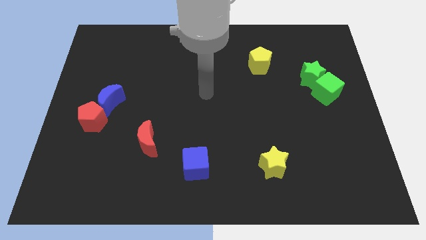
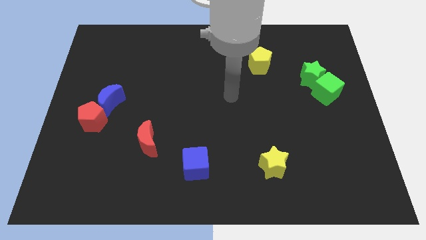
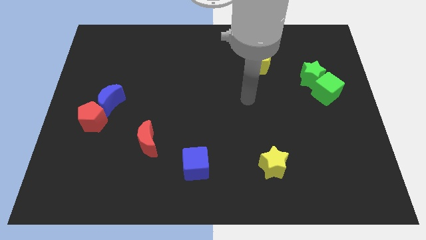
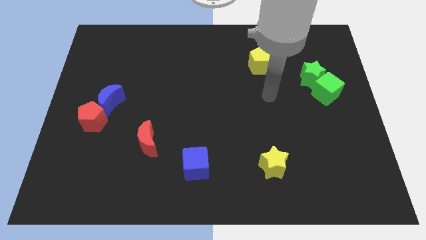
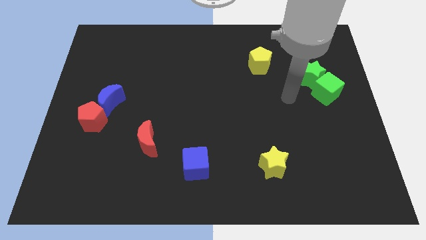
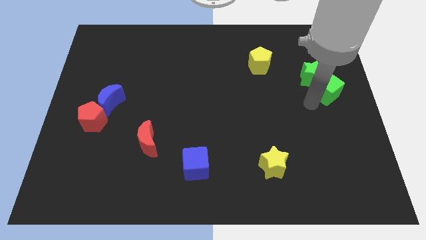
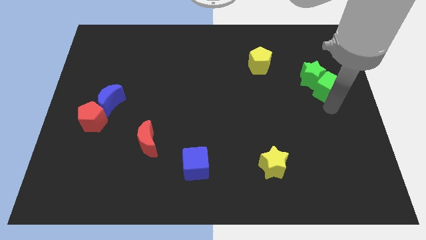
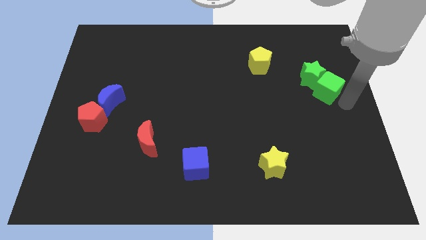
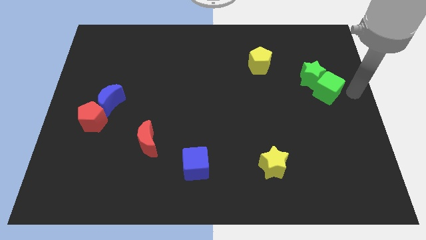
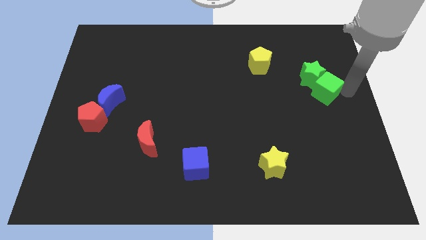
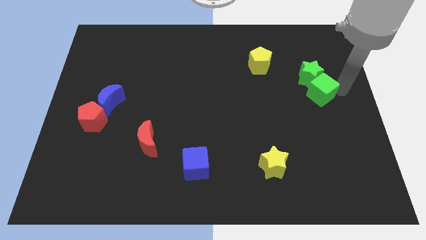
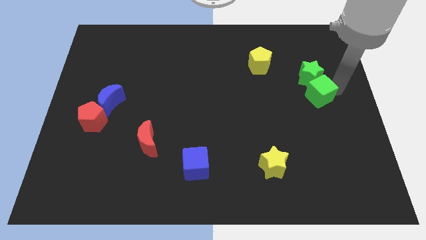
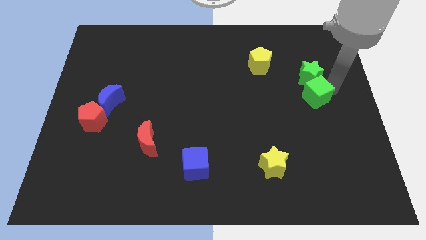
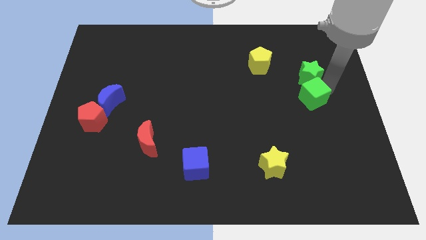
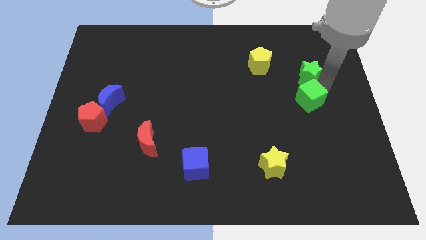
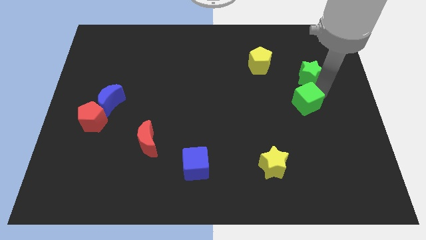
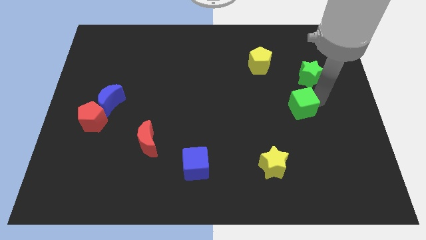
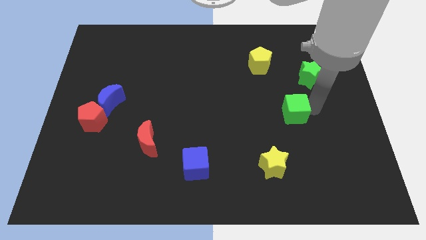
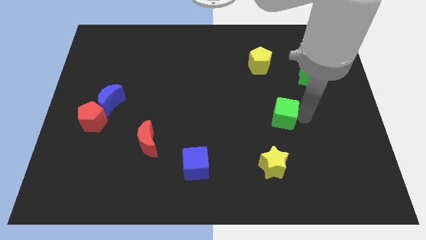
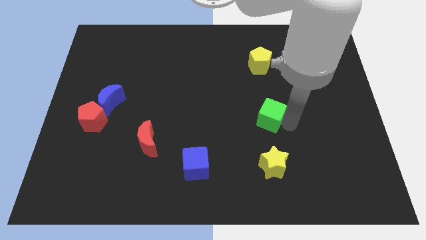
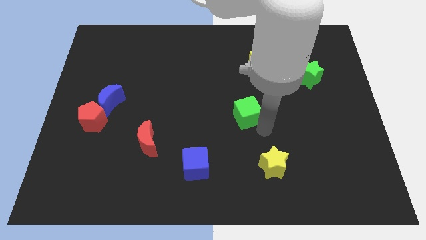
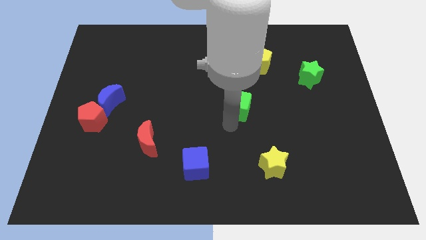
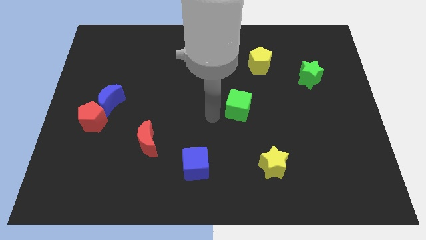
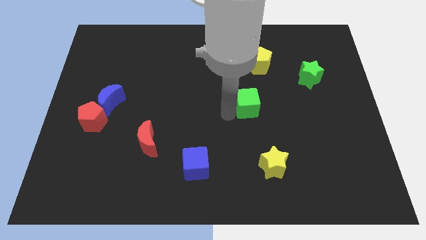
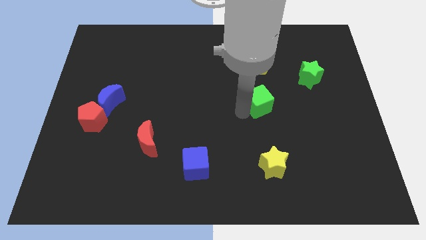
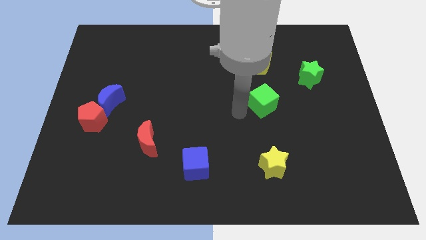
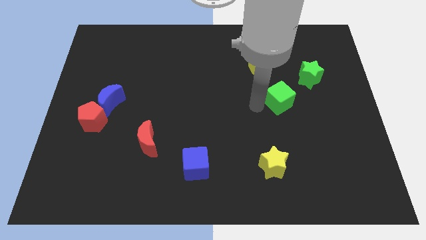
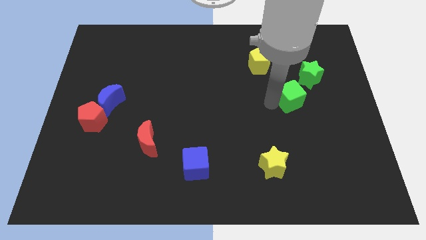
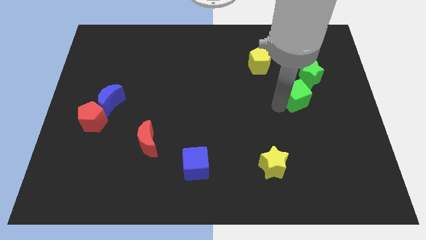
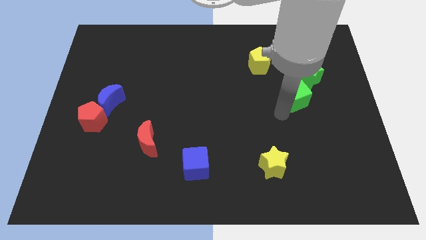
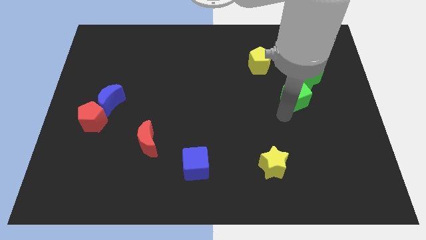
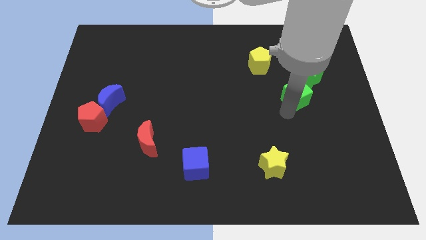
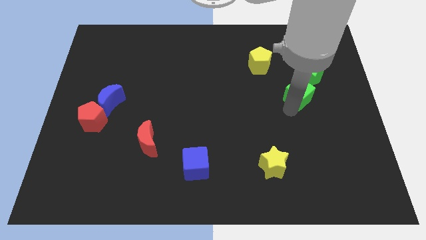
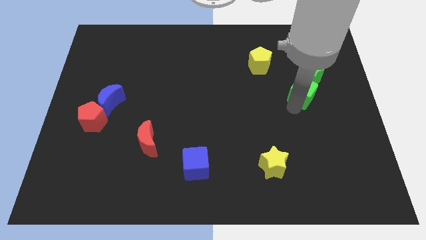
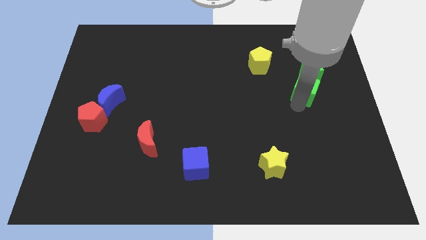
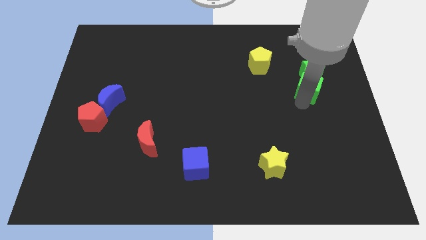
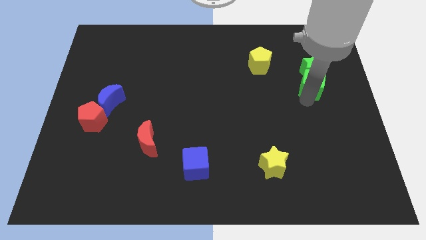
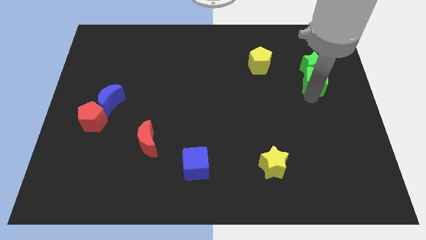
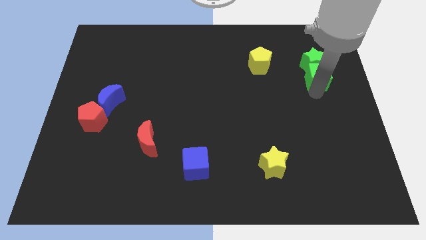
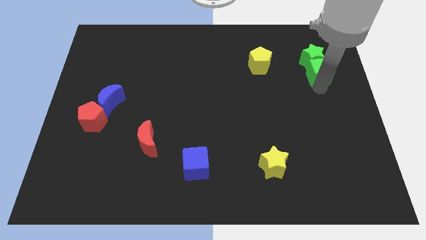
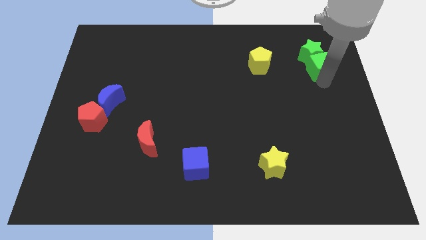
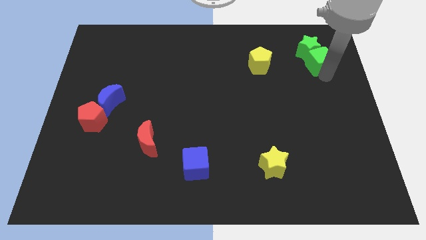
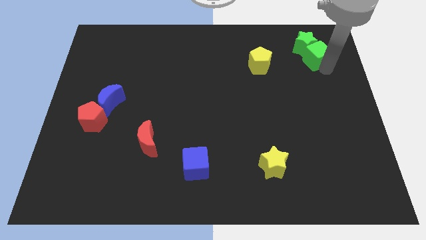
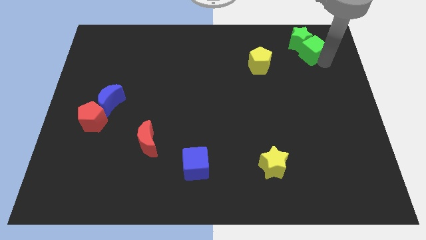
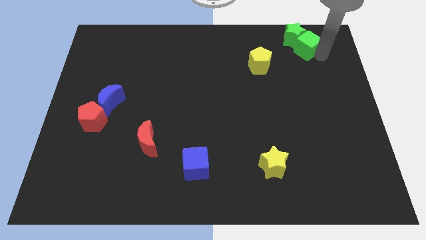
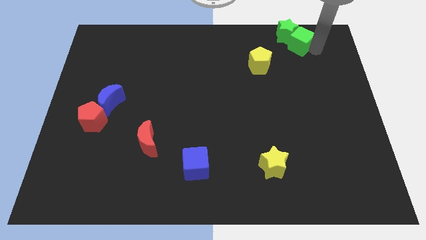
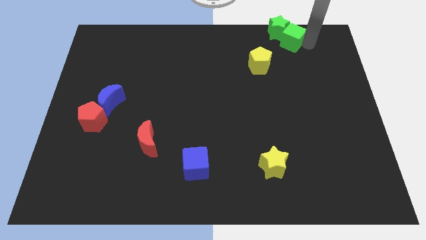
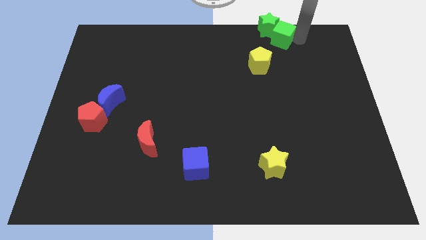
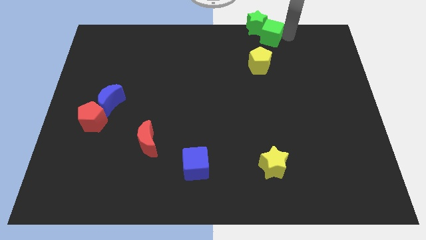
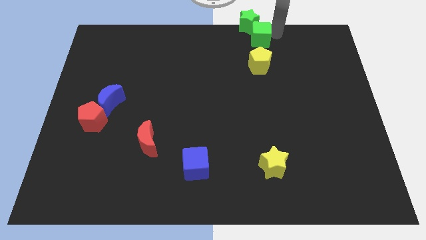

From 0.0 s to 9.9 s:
put the green cube to the towards your base

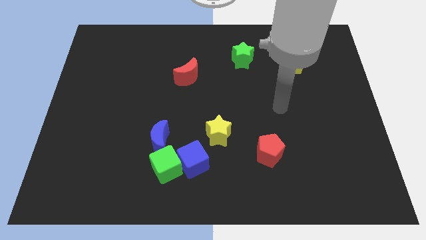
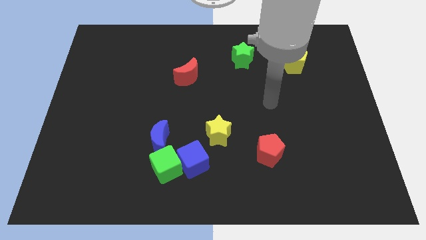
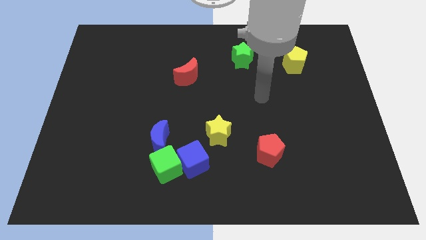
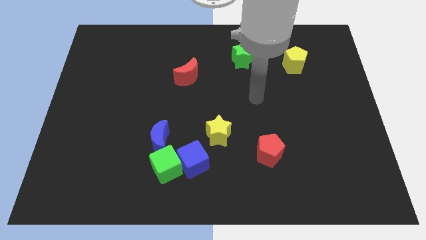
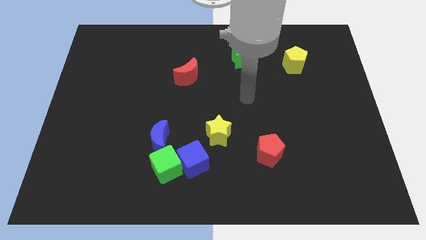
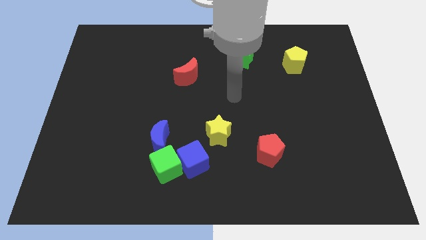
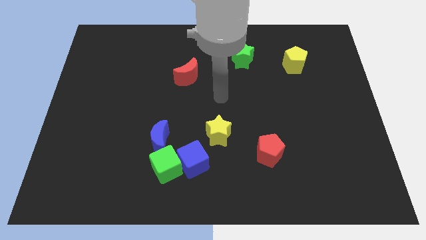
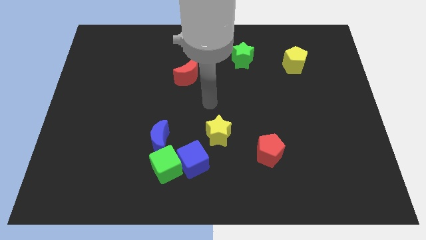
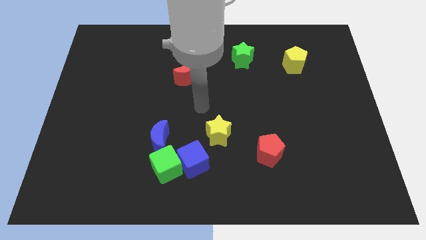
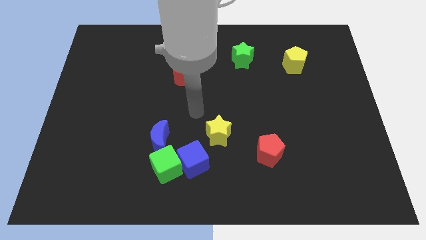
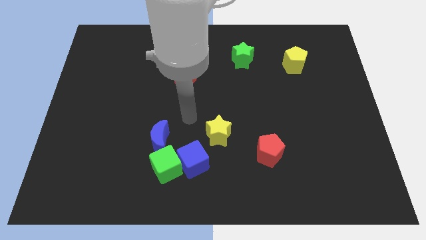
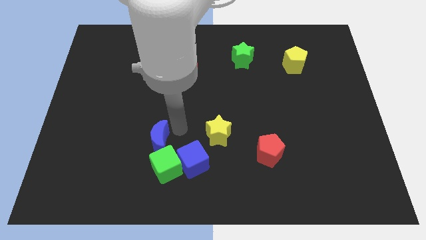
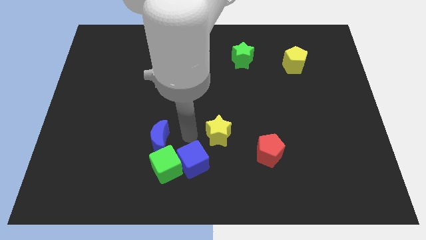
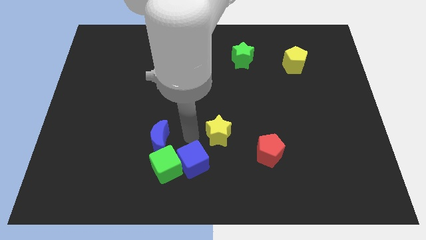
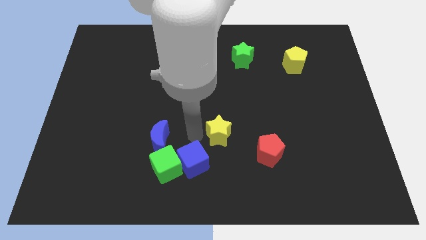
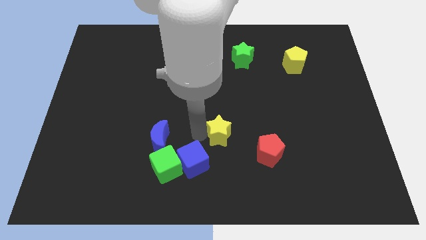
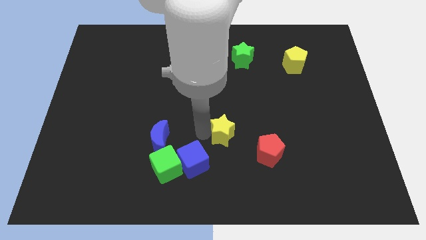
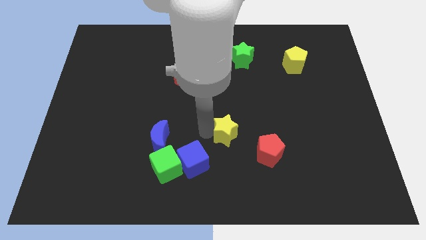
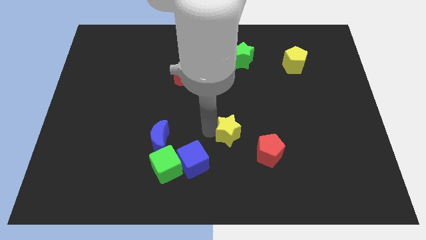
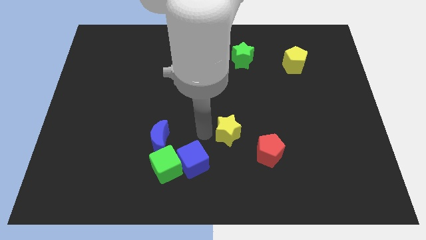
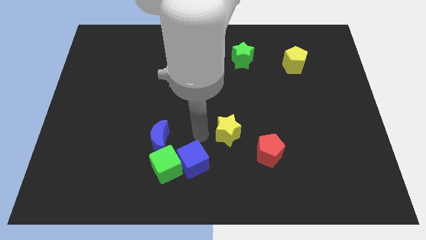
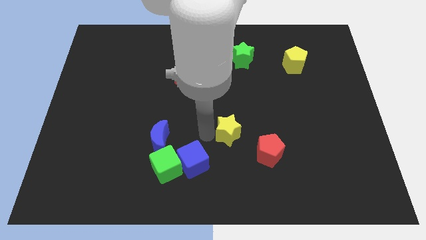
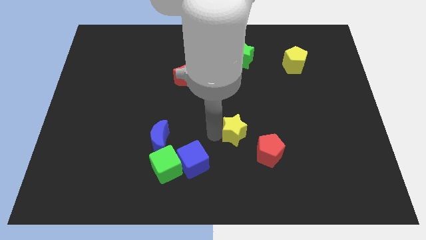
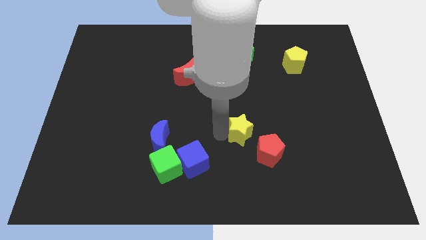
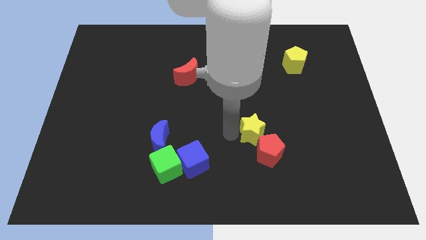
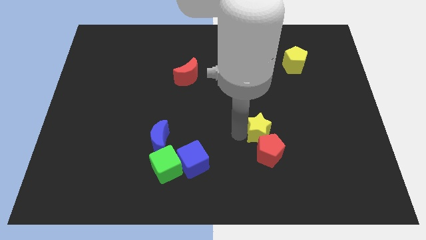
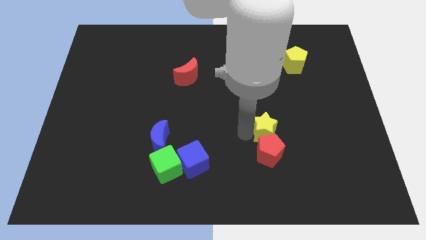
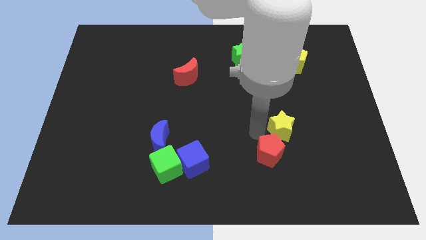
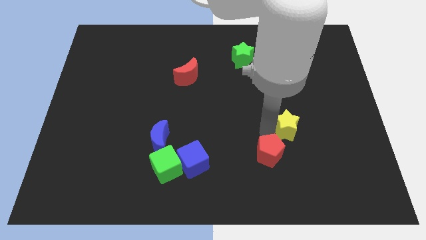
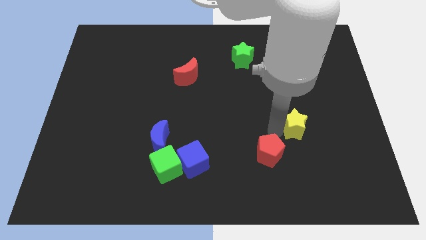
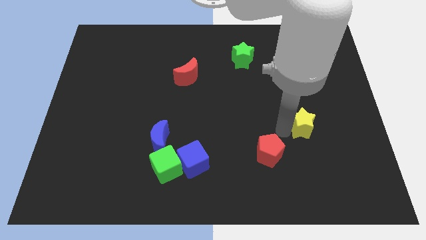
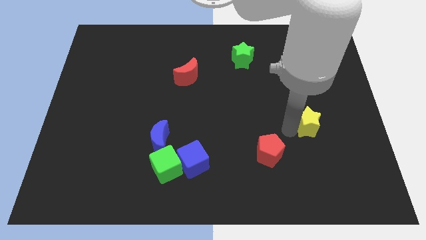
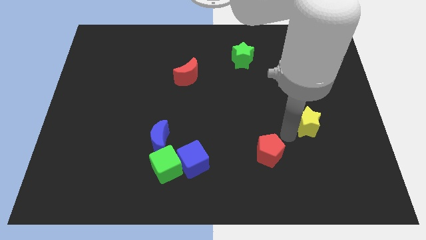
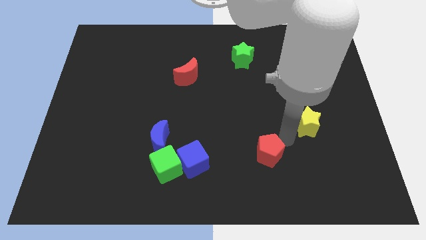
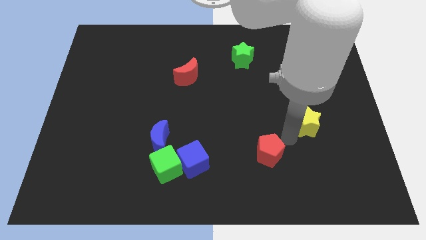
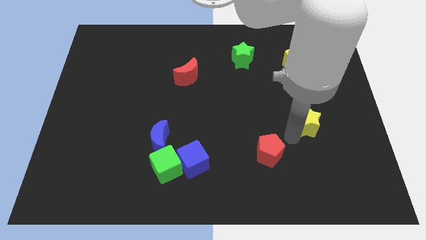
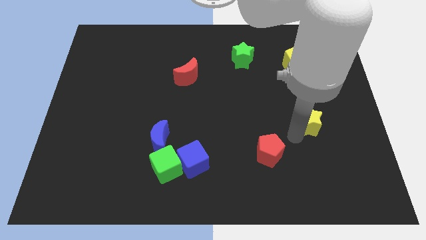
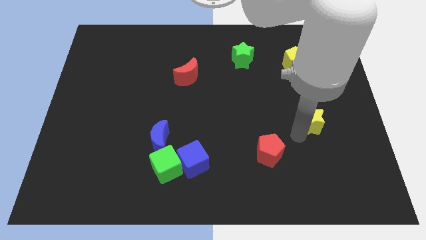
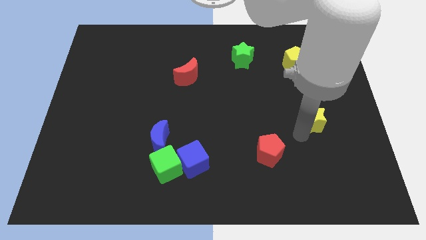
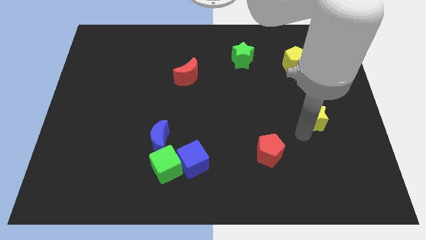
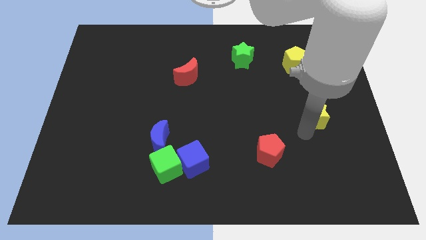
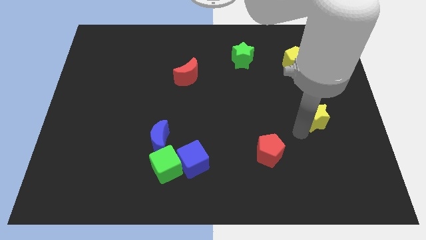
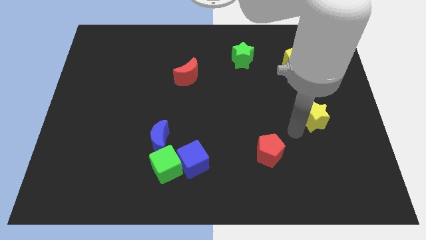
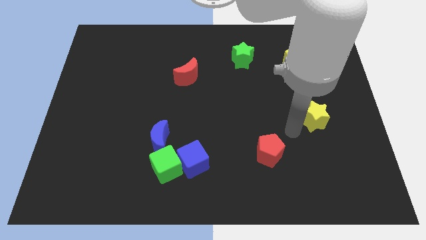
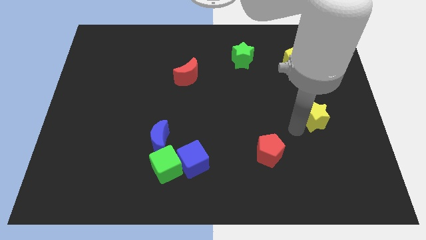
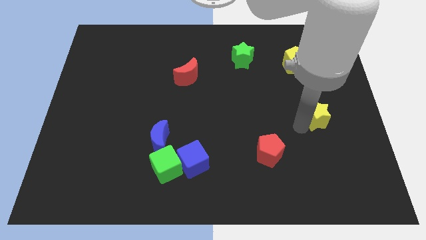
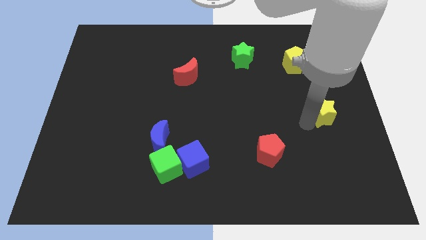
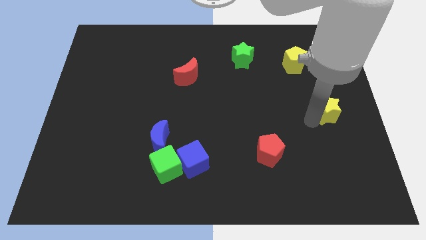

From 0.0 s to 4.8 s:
move the yellow star to the center right
